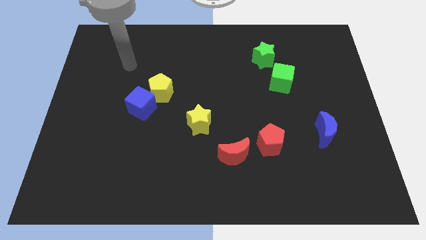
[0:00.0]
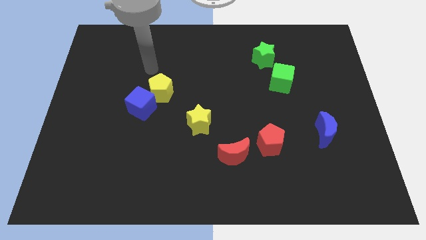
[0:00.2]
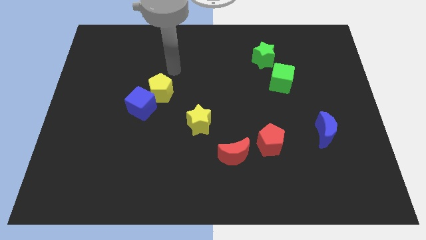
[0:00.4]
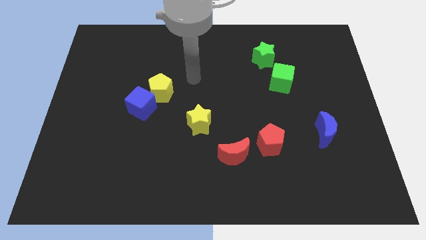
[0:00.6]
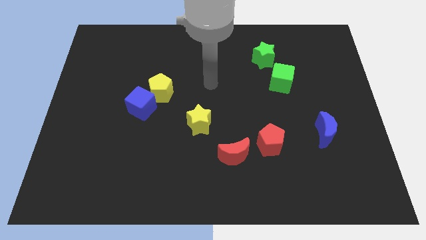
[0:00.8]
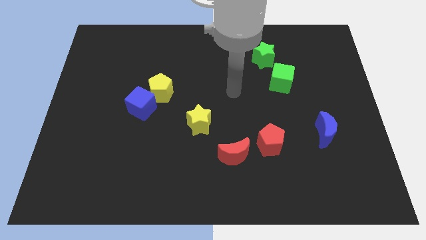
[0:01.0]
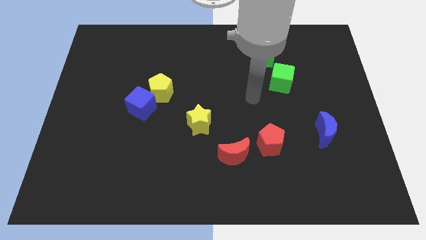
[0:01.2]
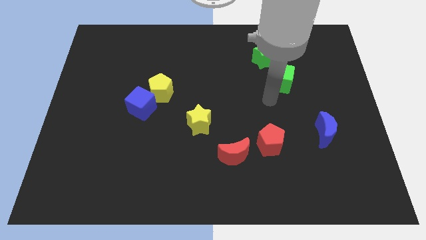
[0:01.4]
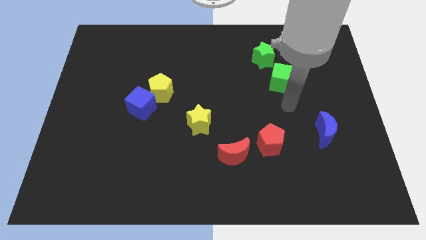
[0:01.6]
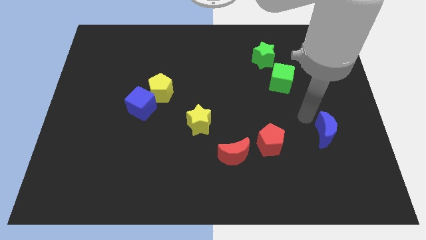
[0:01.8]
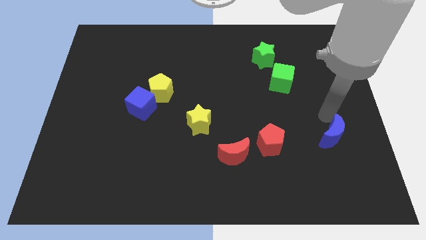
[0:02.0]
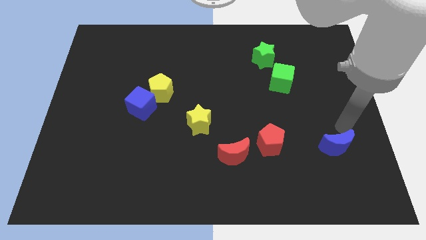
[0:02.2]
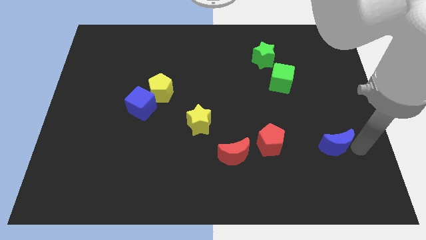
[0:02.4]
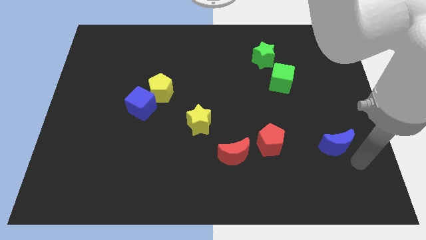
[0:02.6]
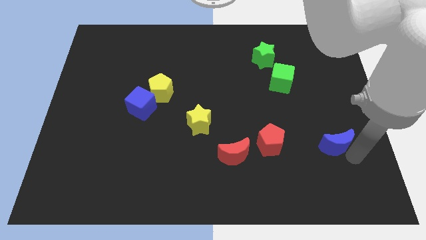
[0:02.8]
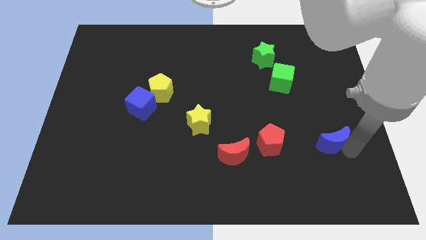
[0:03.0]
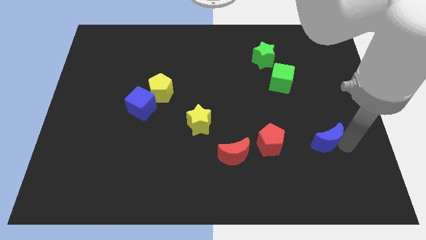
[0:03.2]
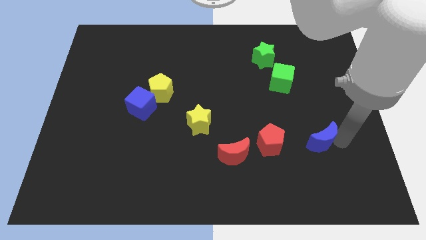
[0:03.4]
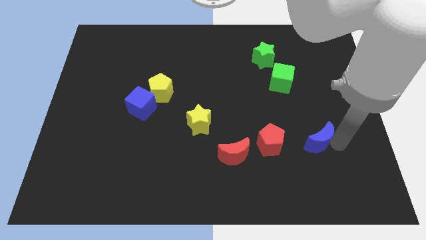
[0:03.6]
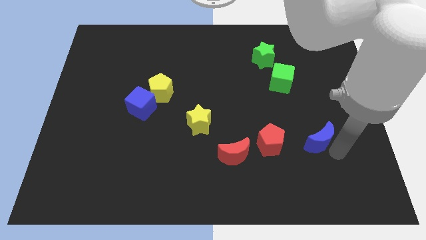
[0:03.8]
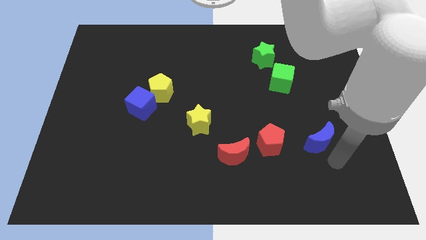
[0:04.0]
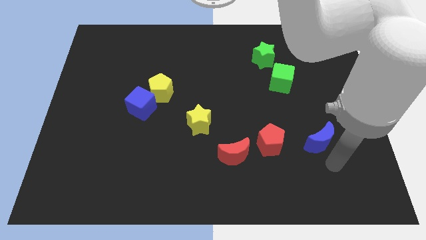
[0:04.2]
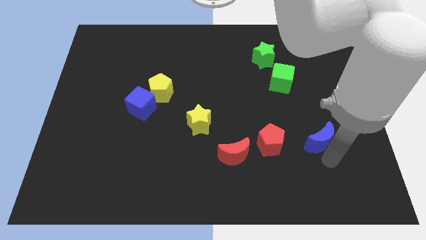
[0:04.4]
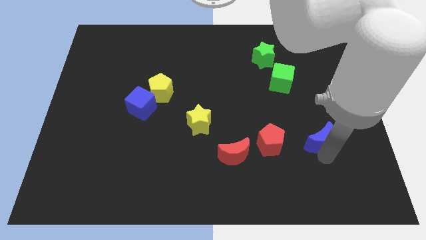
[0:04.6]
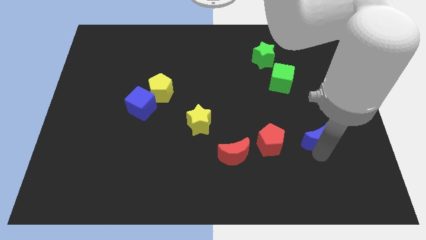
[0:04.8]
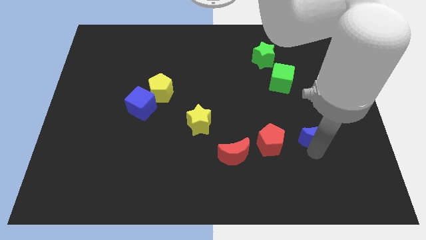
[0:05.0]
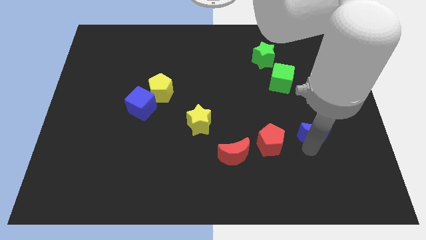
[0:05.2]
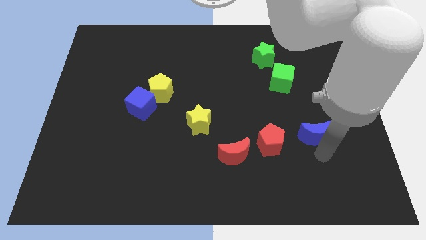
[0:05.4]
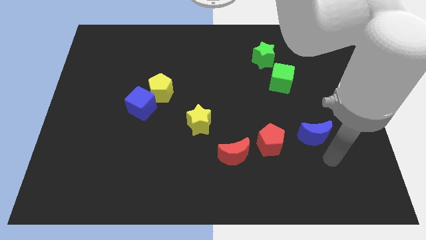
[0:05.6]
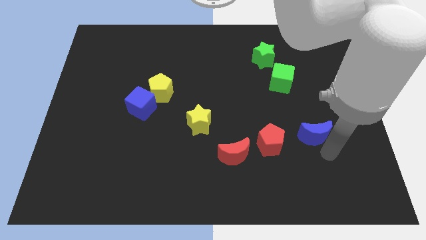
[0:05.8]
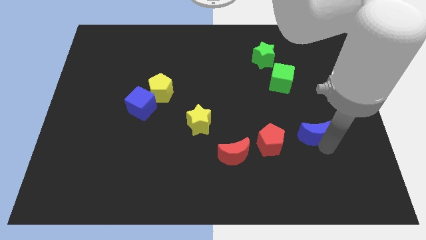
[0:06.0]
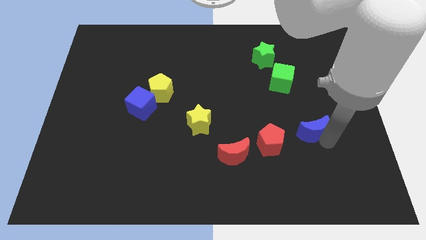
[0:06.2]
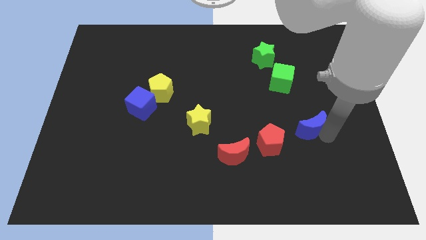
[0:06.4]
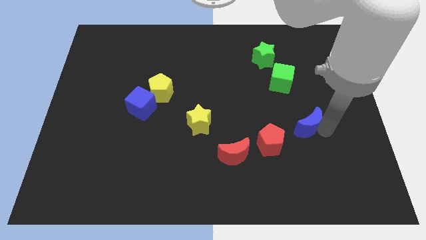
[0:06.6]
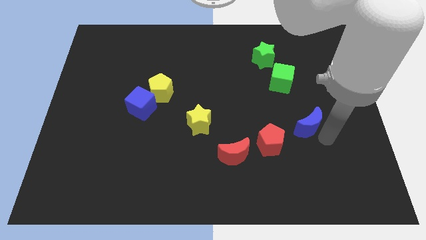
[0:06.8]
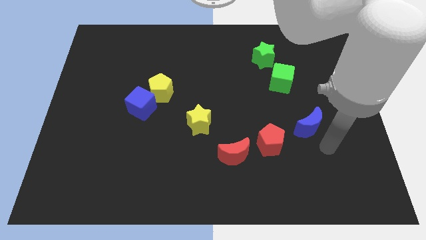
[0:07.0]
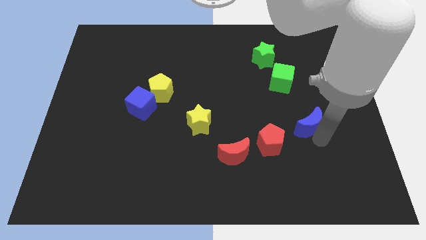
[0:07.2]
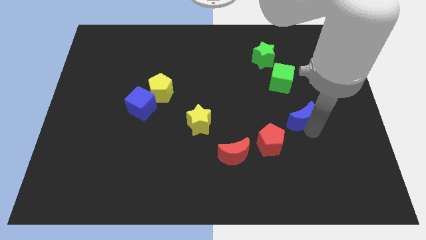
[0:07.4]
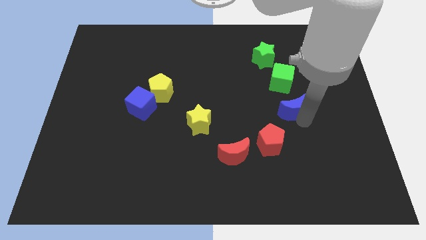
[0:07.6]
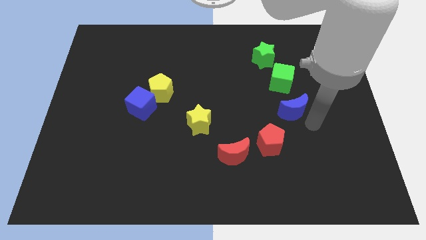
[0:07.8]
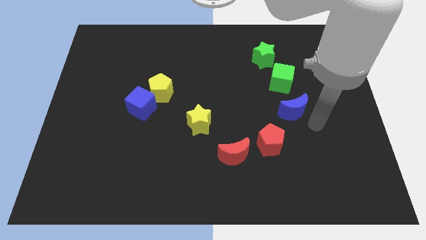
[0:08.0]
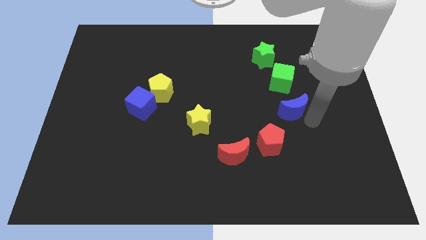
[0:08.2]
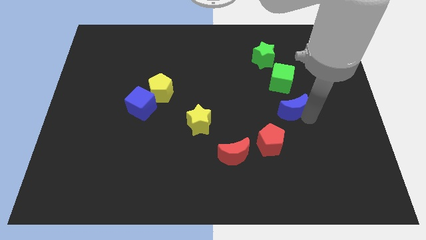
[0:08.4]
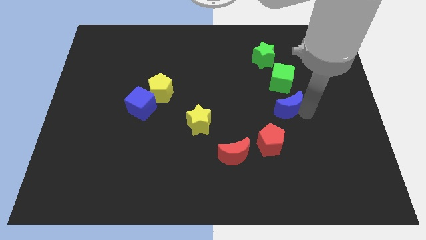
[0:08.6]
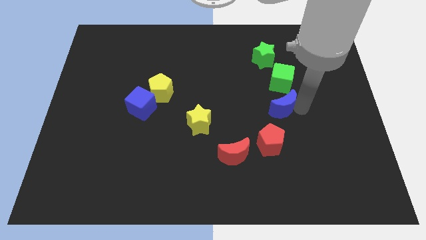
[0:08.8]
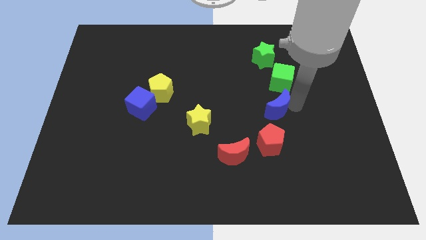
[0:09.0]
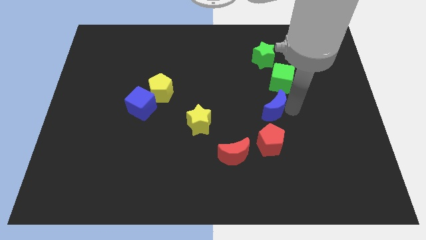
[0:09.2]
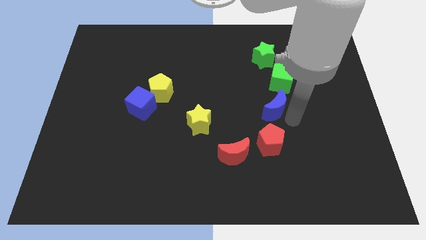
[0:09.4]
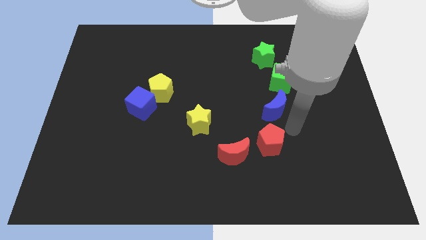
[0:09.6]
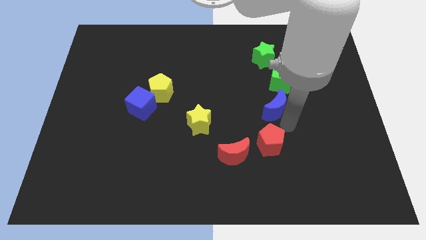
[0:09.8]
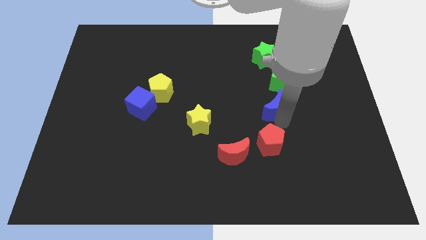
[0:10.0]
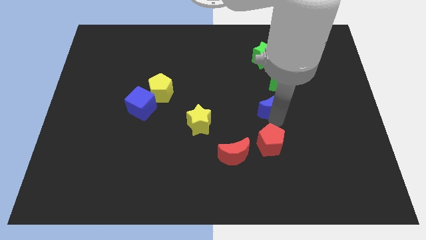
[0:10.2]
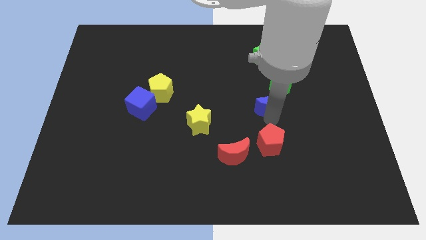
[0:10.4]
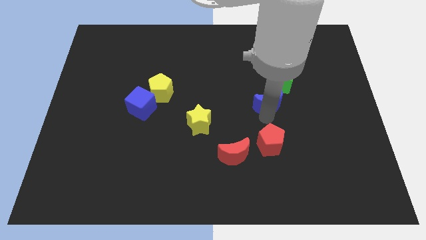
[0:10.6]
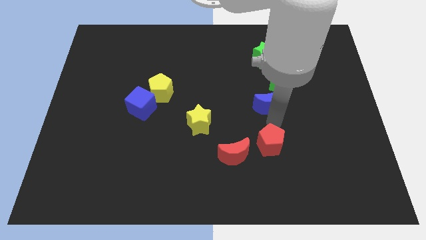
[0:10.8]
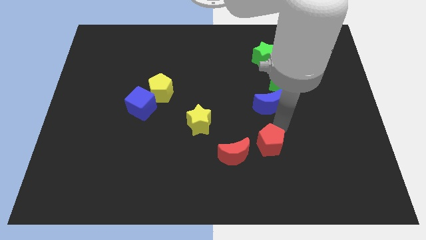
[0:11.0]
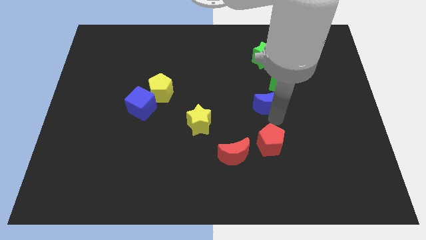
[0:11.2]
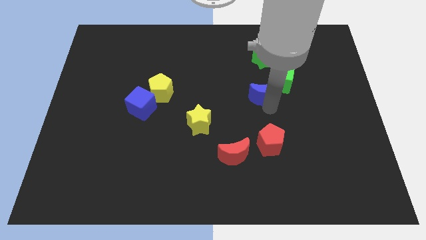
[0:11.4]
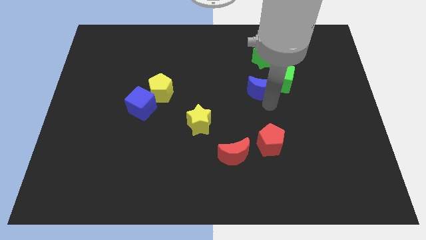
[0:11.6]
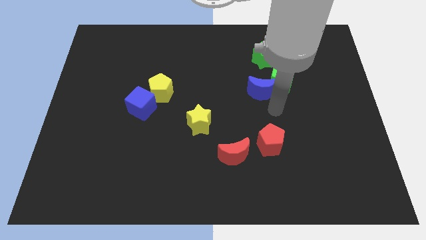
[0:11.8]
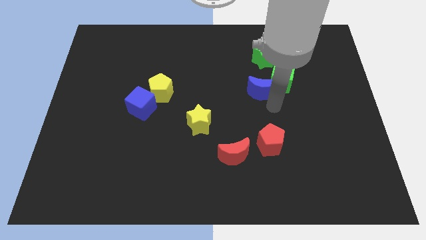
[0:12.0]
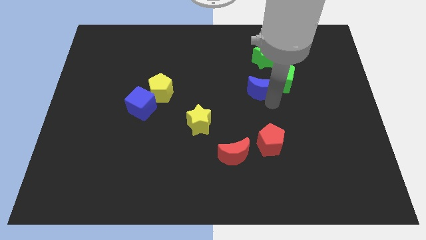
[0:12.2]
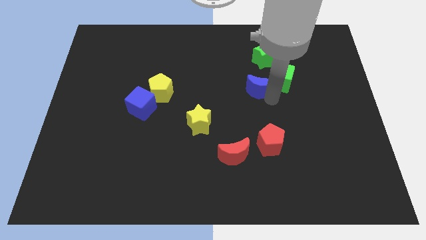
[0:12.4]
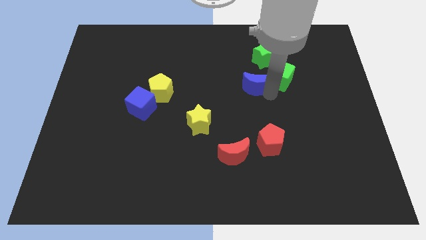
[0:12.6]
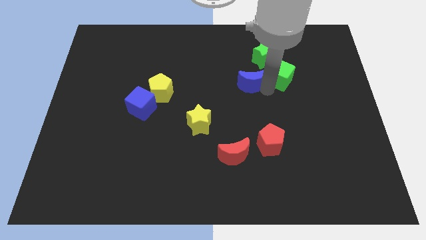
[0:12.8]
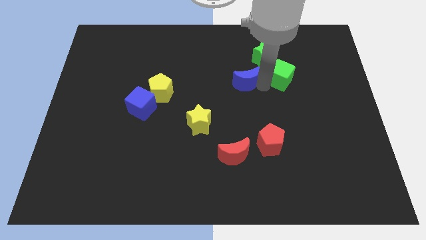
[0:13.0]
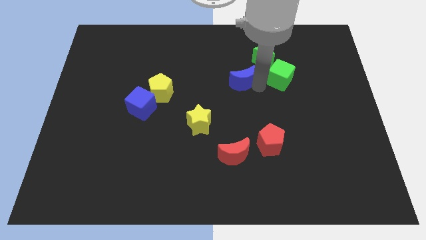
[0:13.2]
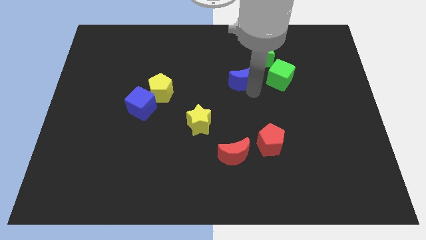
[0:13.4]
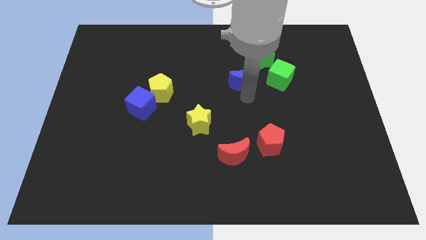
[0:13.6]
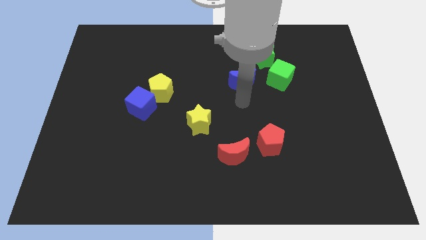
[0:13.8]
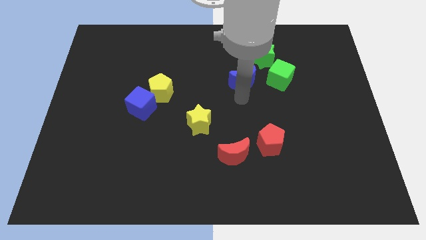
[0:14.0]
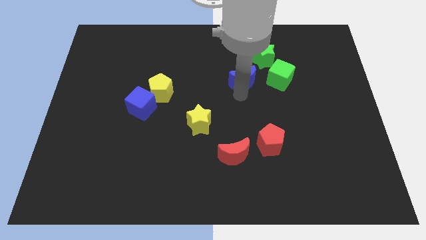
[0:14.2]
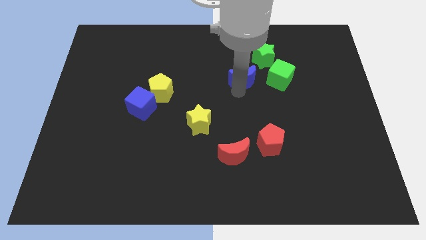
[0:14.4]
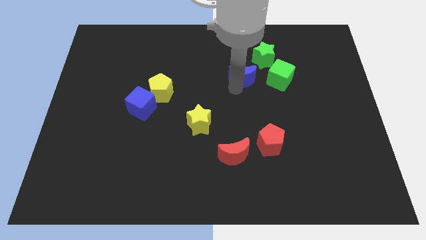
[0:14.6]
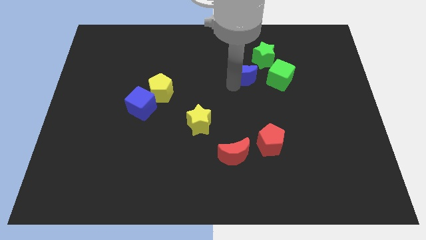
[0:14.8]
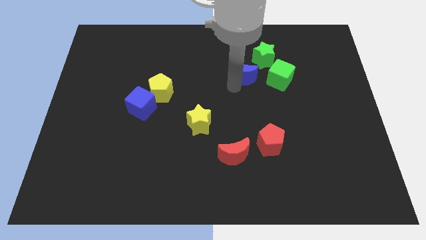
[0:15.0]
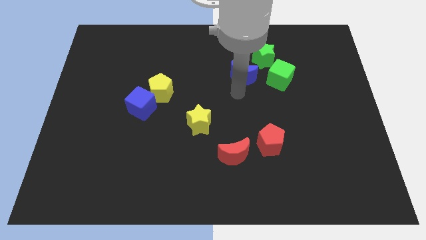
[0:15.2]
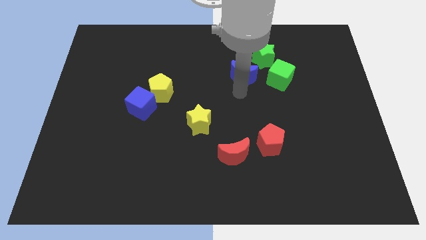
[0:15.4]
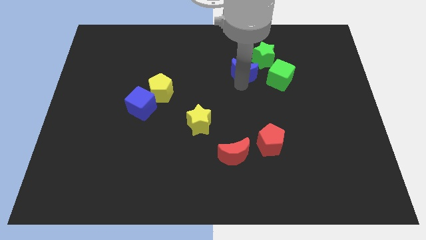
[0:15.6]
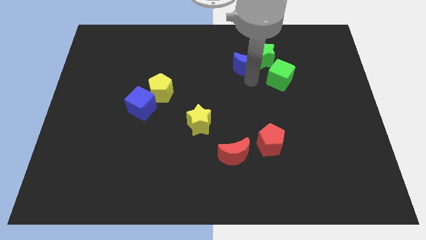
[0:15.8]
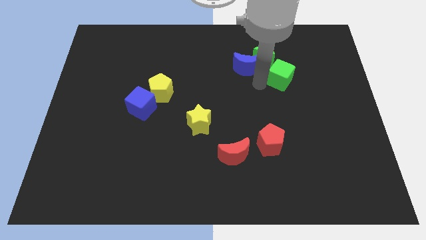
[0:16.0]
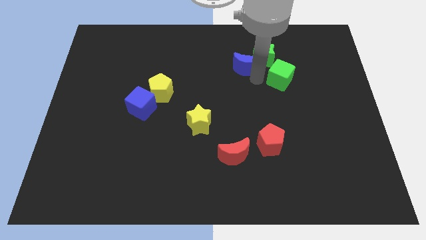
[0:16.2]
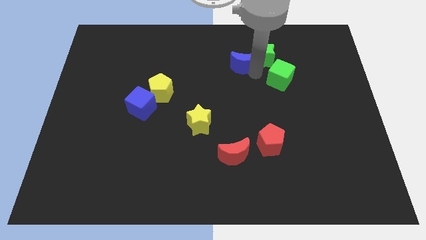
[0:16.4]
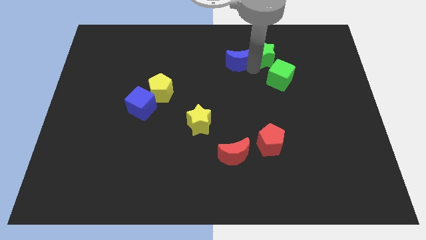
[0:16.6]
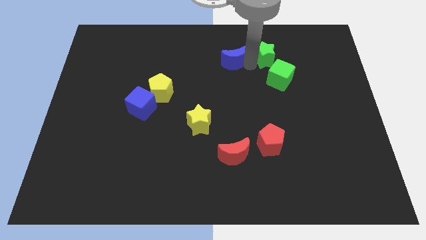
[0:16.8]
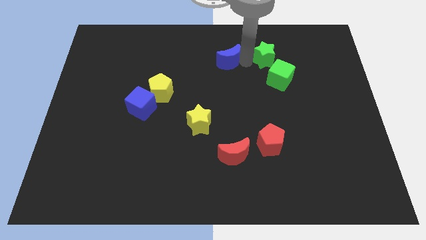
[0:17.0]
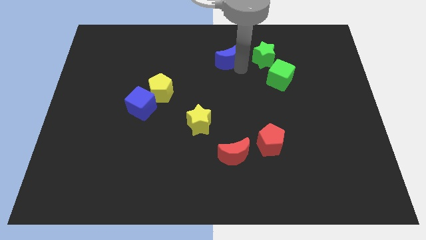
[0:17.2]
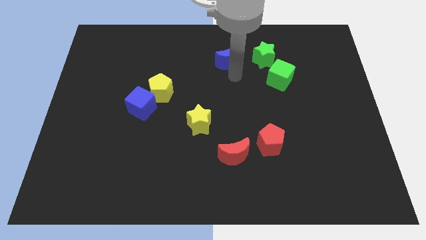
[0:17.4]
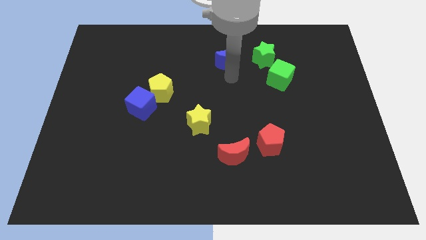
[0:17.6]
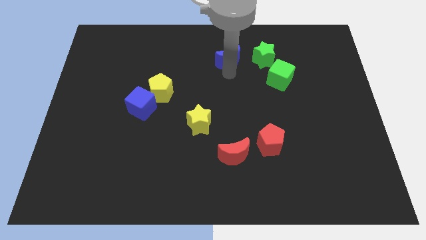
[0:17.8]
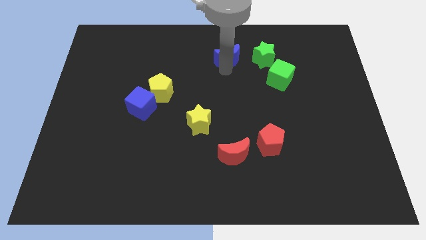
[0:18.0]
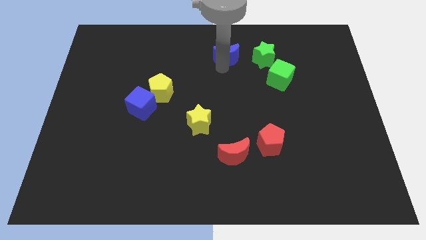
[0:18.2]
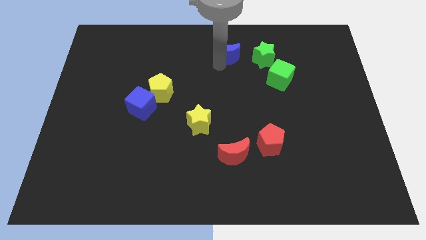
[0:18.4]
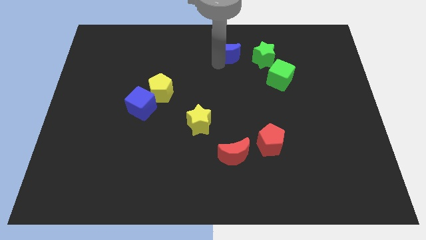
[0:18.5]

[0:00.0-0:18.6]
move the blue moon to the towards your base
